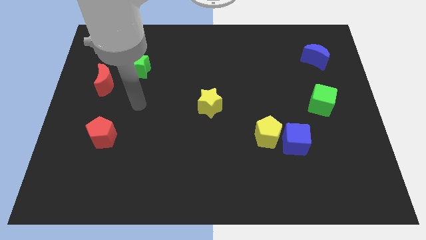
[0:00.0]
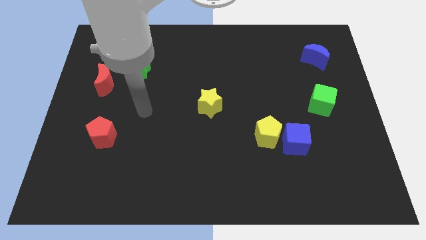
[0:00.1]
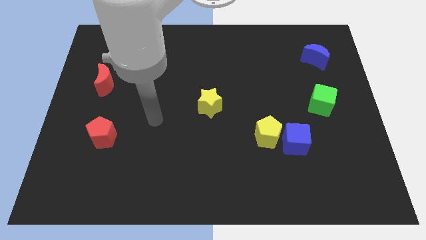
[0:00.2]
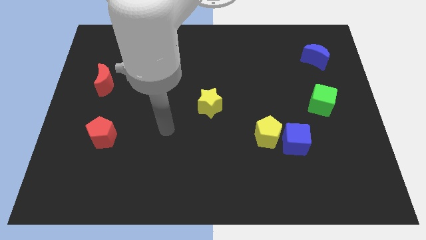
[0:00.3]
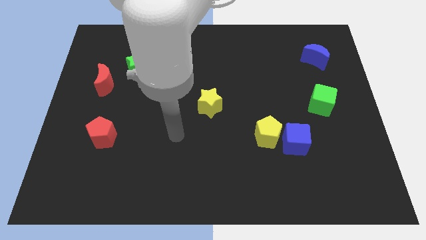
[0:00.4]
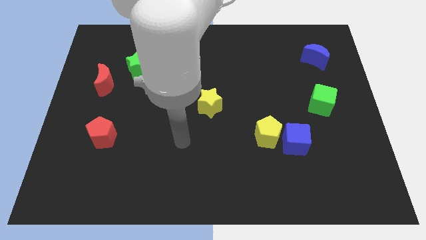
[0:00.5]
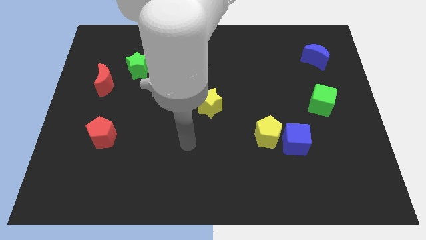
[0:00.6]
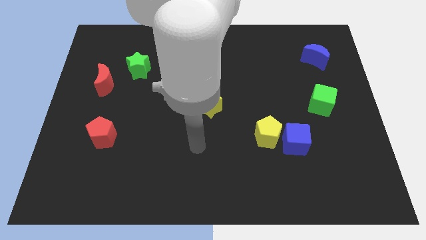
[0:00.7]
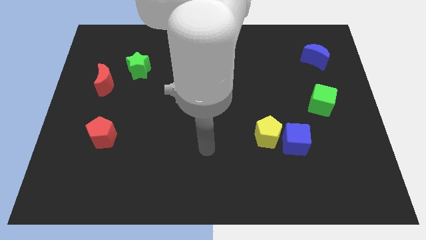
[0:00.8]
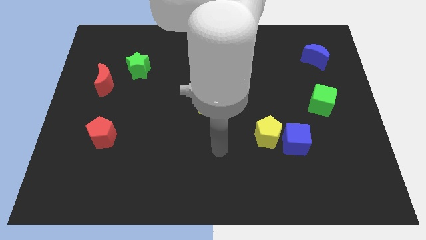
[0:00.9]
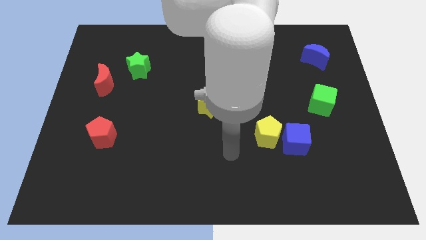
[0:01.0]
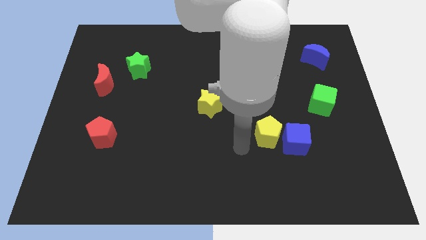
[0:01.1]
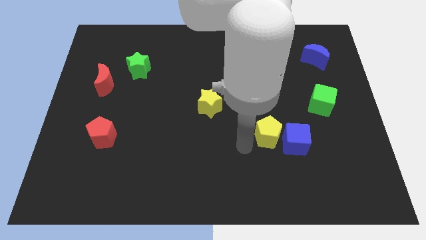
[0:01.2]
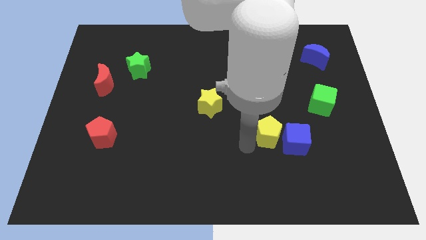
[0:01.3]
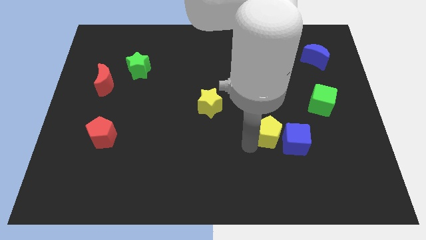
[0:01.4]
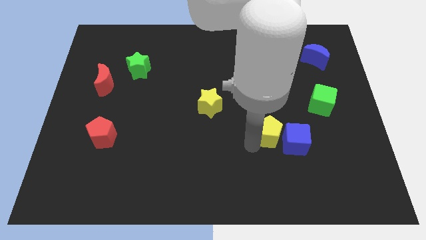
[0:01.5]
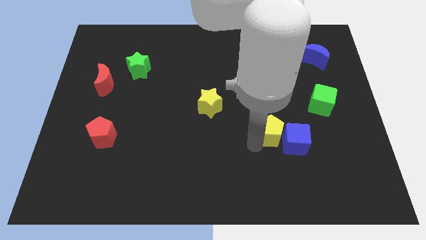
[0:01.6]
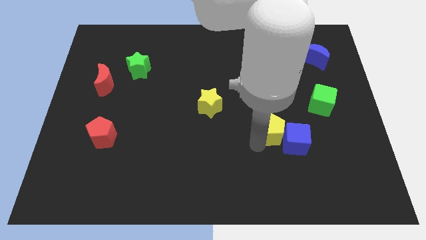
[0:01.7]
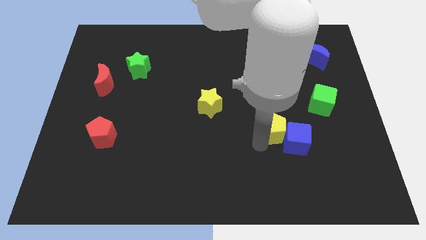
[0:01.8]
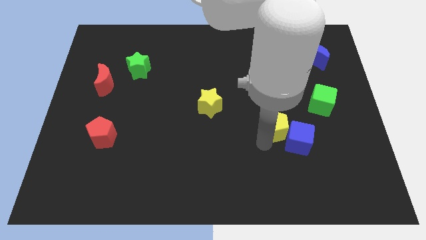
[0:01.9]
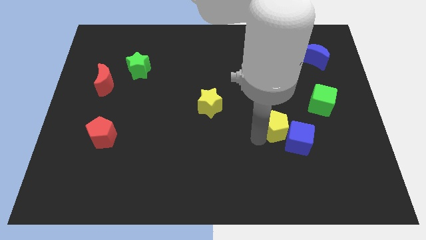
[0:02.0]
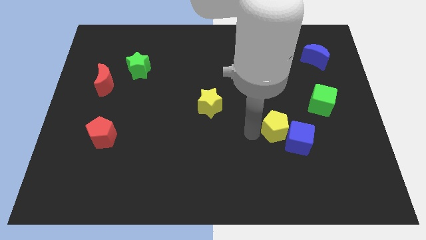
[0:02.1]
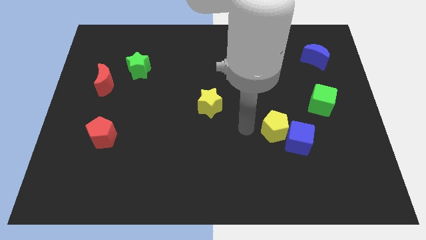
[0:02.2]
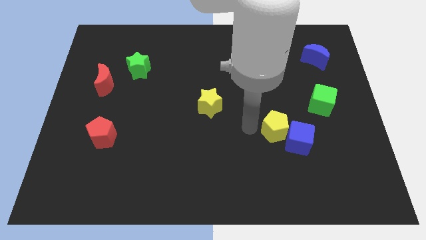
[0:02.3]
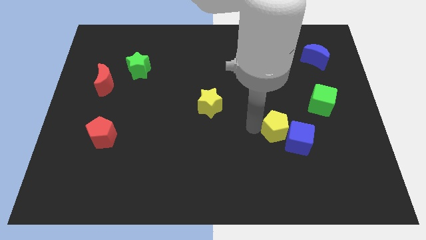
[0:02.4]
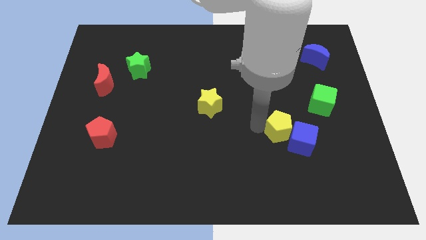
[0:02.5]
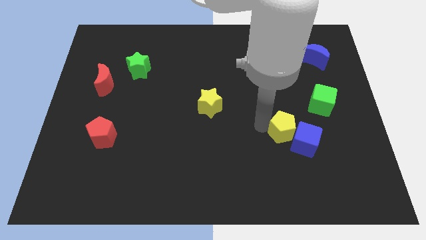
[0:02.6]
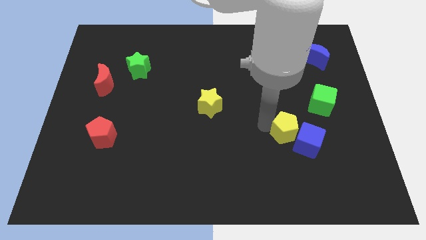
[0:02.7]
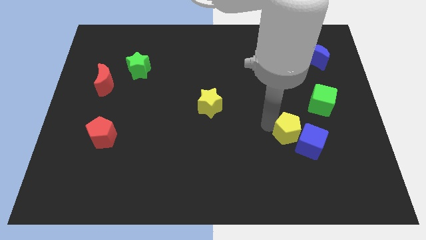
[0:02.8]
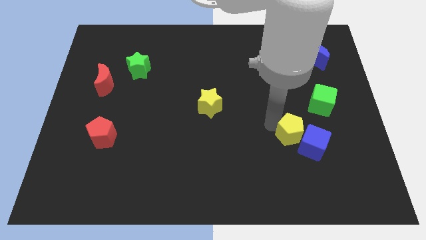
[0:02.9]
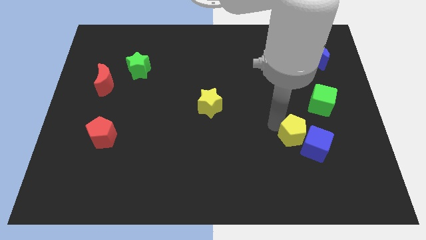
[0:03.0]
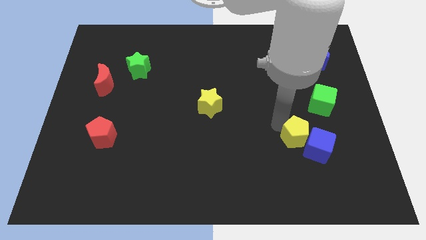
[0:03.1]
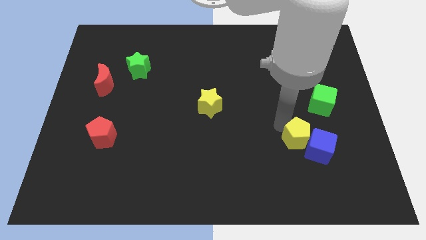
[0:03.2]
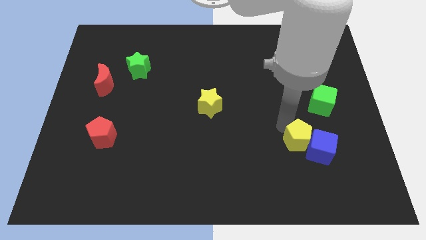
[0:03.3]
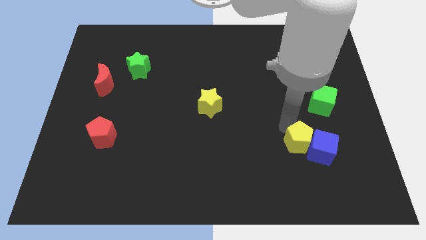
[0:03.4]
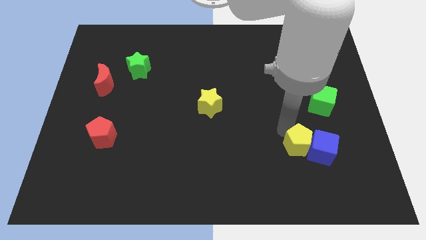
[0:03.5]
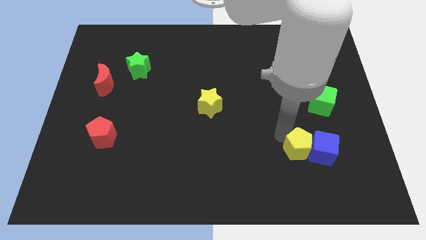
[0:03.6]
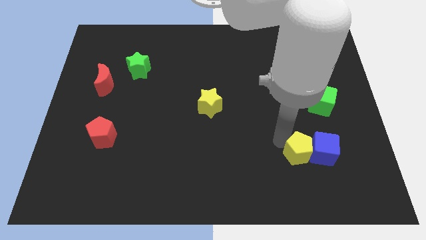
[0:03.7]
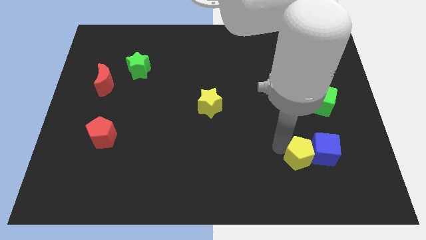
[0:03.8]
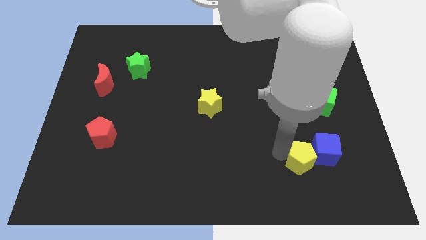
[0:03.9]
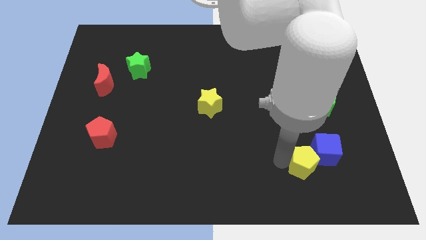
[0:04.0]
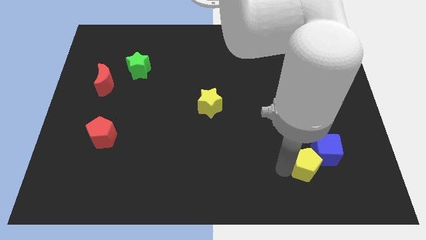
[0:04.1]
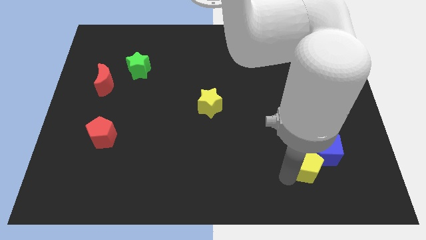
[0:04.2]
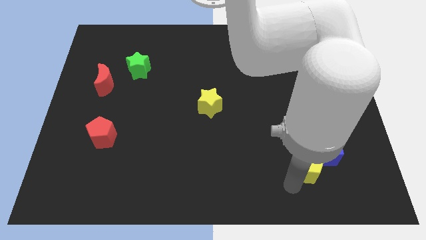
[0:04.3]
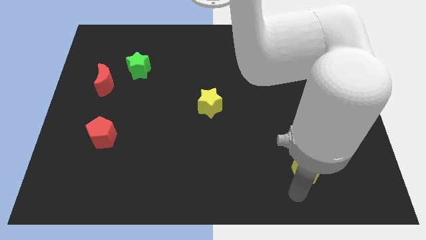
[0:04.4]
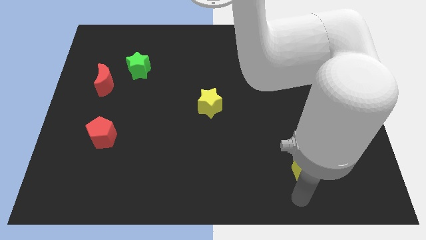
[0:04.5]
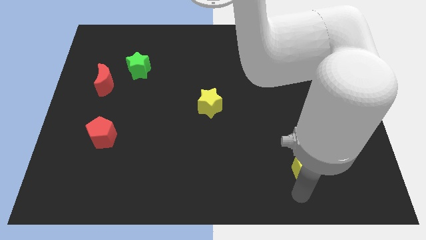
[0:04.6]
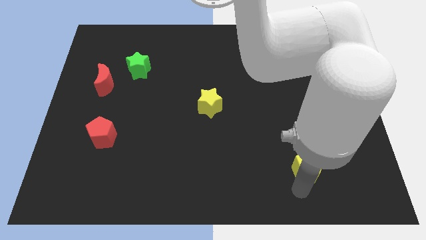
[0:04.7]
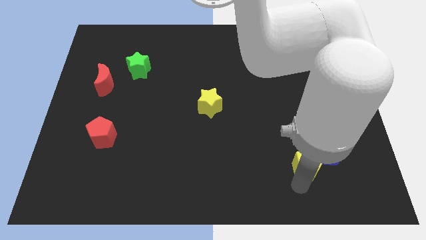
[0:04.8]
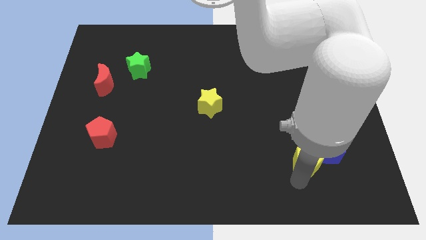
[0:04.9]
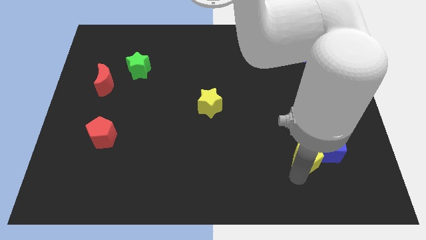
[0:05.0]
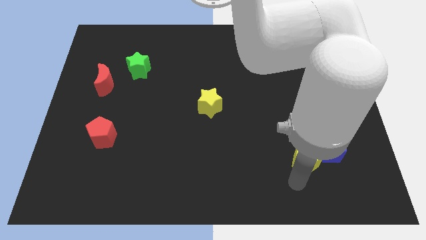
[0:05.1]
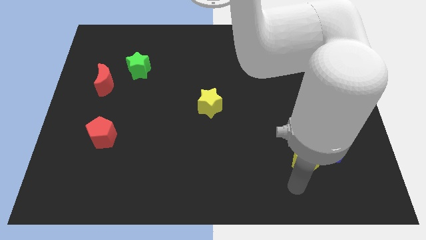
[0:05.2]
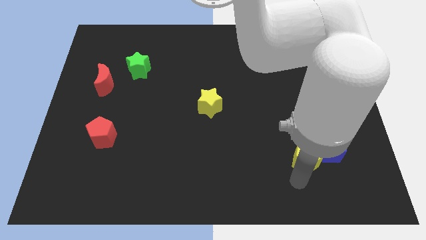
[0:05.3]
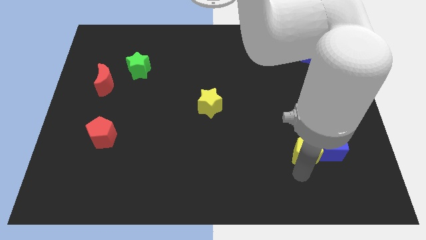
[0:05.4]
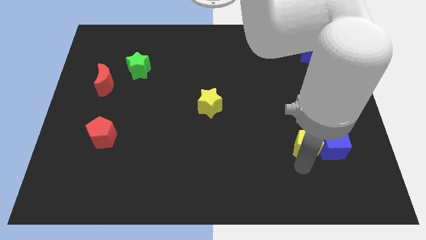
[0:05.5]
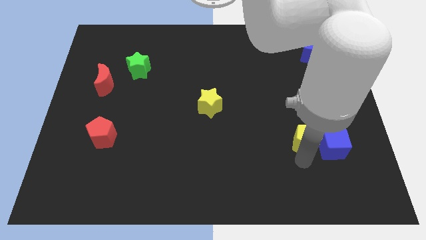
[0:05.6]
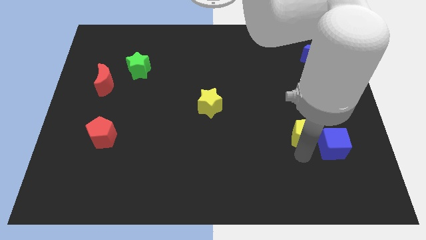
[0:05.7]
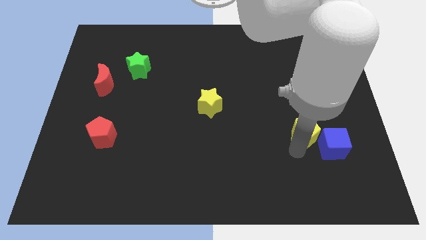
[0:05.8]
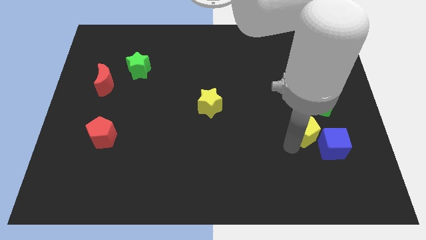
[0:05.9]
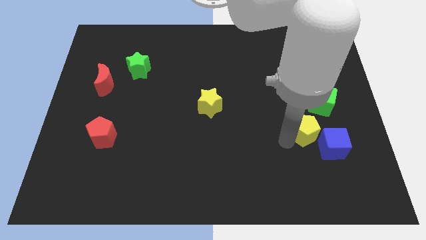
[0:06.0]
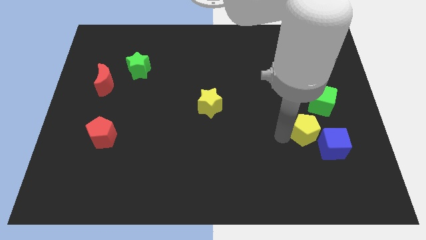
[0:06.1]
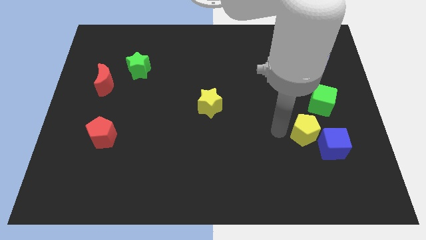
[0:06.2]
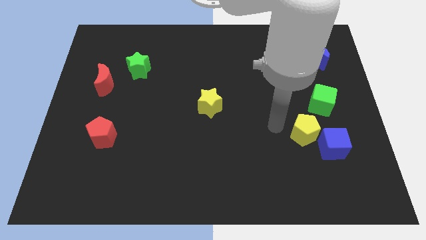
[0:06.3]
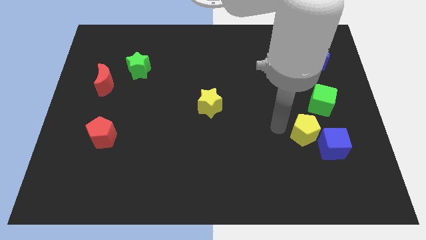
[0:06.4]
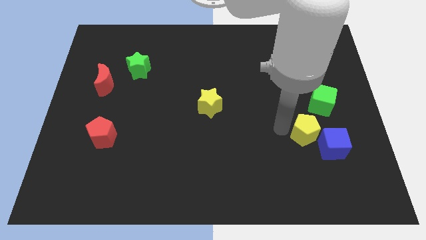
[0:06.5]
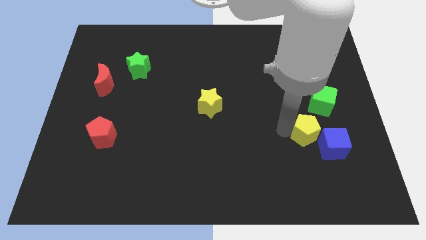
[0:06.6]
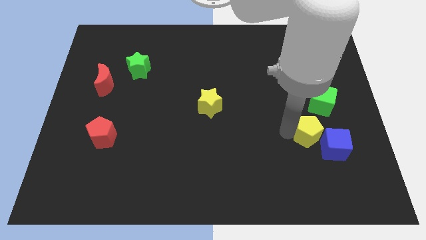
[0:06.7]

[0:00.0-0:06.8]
put the yellow pentagon to the bottom side of the green cube

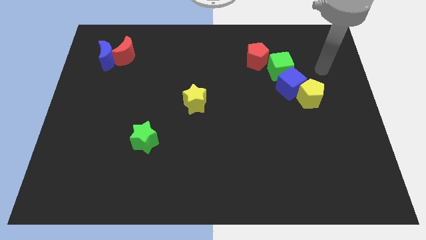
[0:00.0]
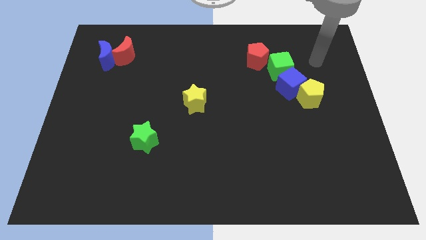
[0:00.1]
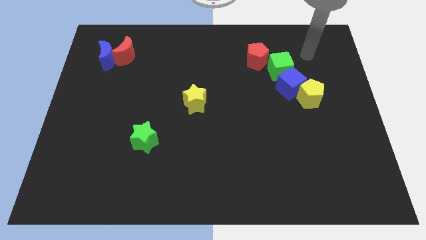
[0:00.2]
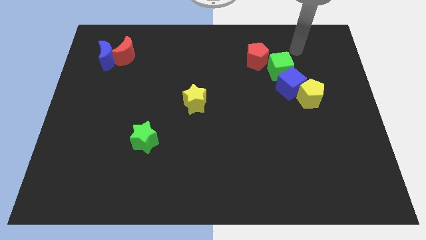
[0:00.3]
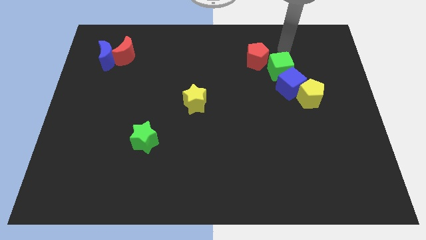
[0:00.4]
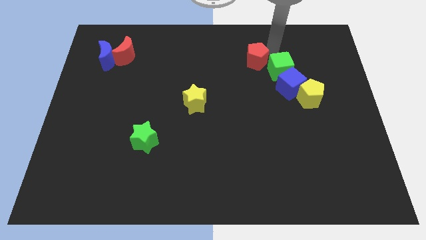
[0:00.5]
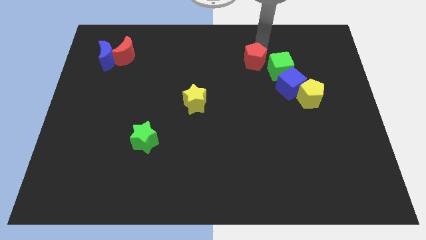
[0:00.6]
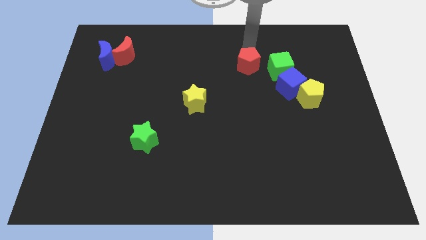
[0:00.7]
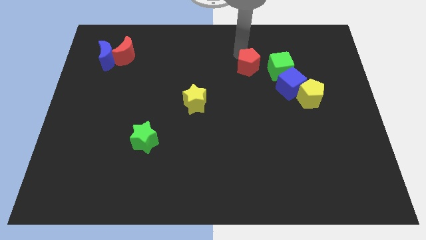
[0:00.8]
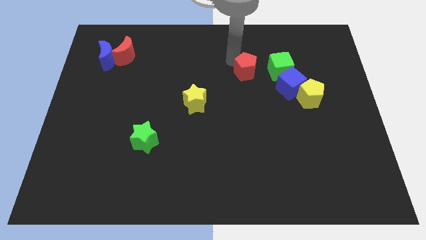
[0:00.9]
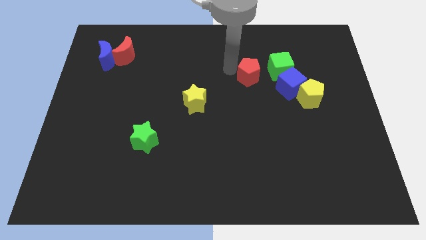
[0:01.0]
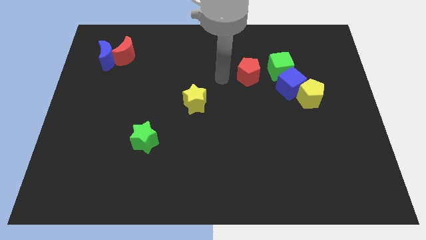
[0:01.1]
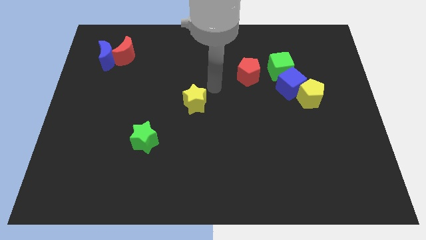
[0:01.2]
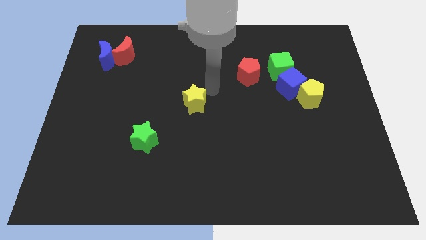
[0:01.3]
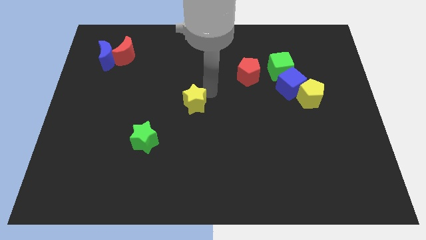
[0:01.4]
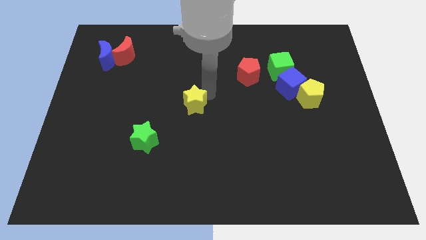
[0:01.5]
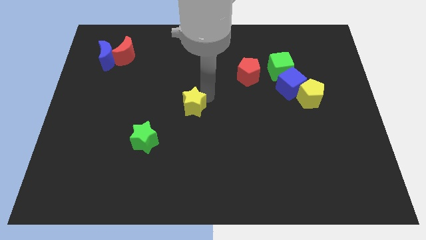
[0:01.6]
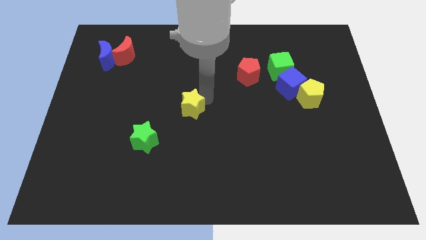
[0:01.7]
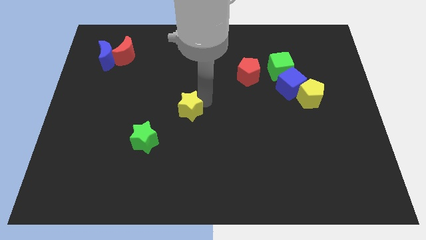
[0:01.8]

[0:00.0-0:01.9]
put the yellow star diagonally up and to the right of the green star
